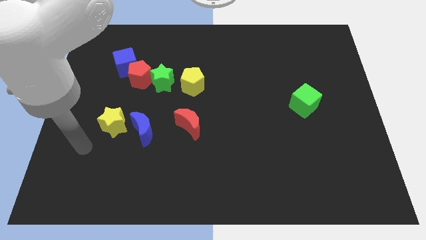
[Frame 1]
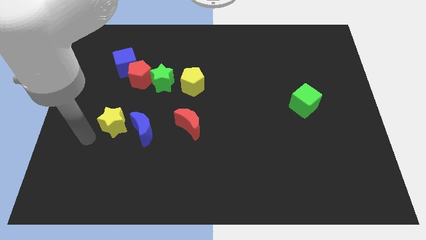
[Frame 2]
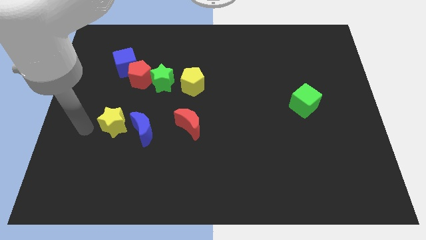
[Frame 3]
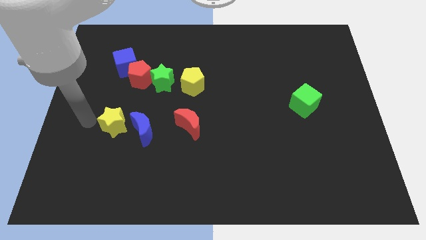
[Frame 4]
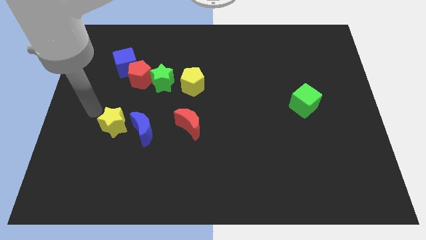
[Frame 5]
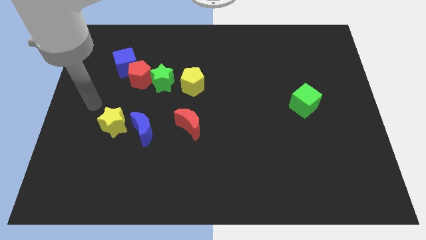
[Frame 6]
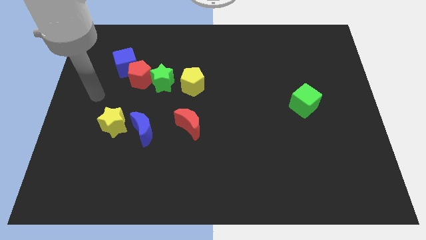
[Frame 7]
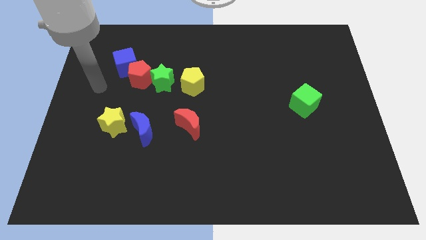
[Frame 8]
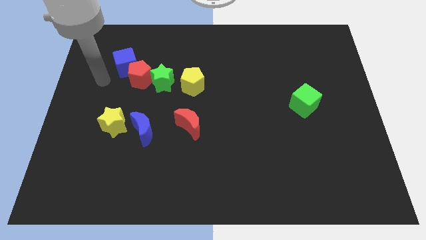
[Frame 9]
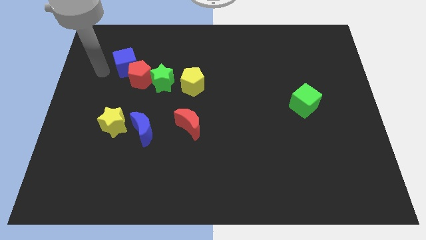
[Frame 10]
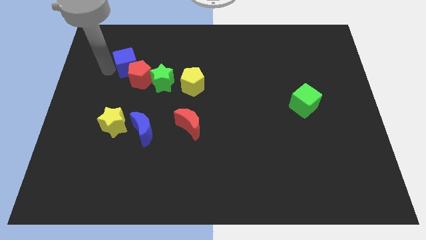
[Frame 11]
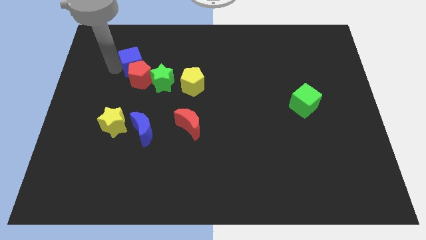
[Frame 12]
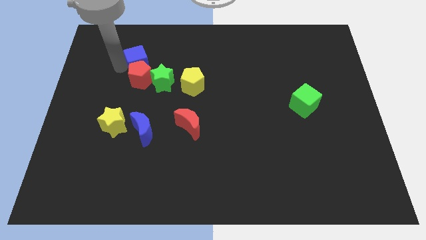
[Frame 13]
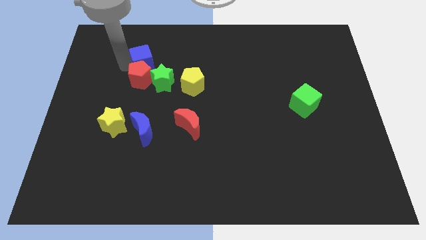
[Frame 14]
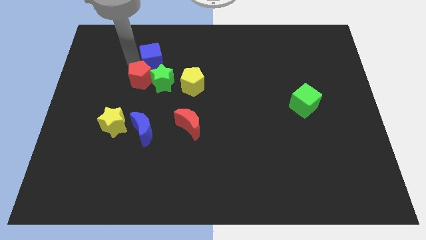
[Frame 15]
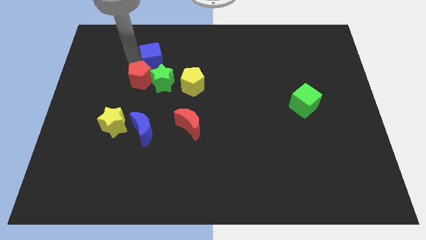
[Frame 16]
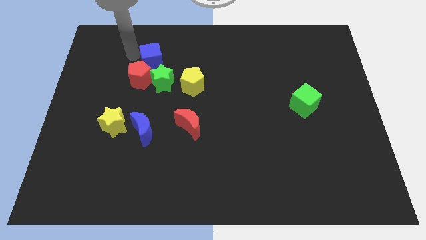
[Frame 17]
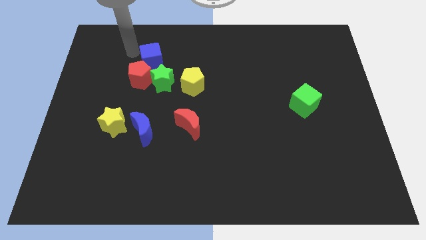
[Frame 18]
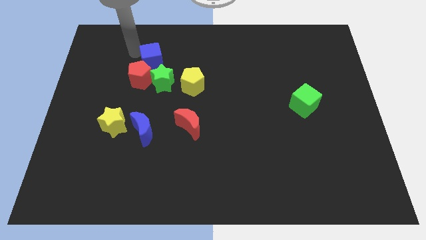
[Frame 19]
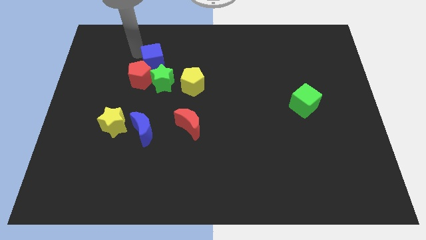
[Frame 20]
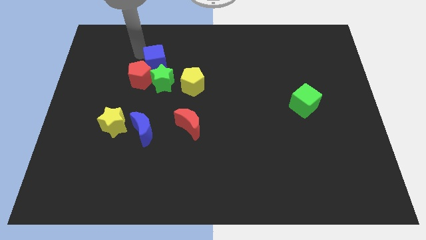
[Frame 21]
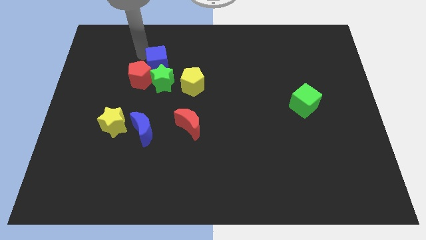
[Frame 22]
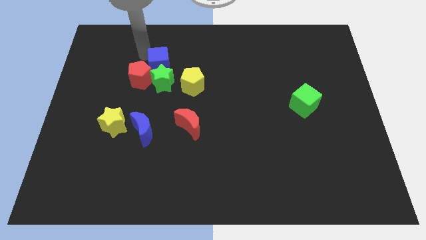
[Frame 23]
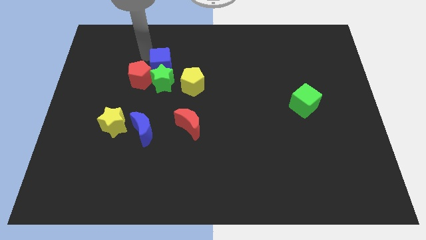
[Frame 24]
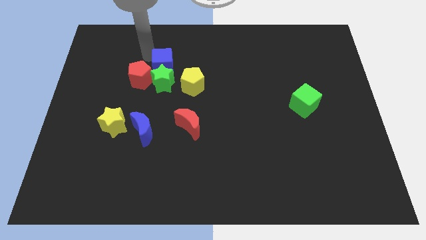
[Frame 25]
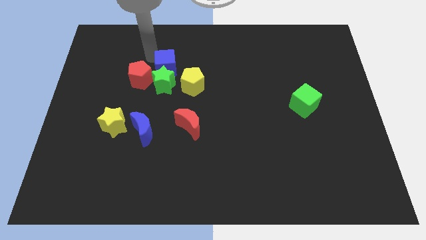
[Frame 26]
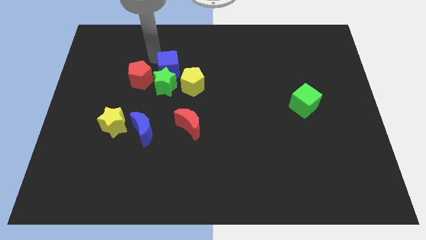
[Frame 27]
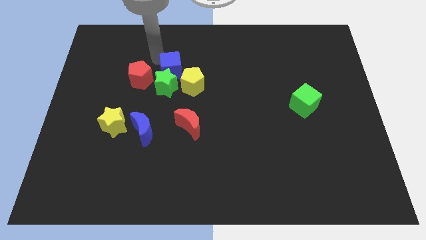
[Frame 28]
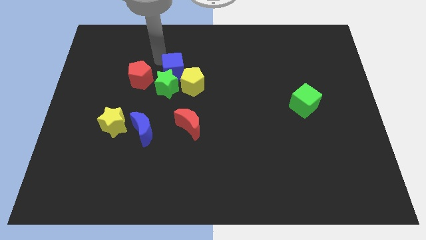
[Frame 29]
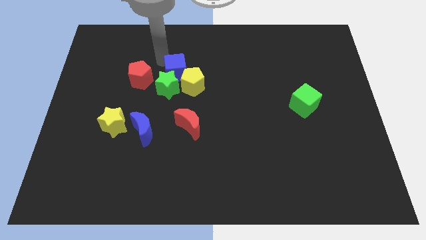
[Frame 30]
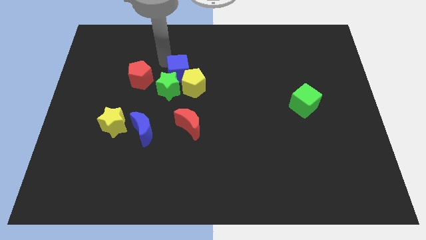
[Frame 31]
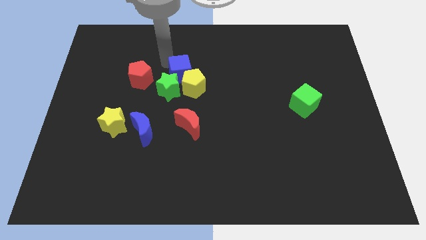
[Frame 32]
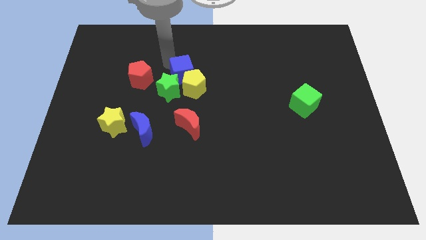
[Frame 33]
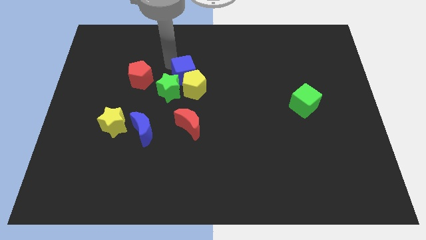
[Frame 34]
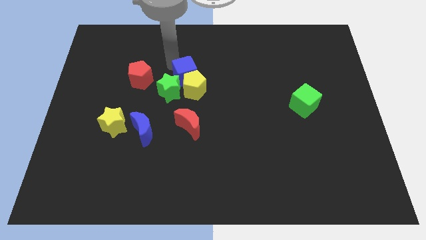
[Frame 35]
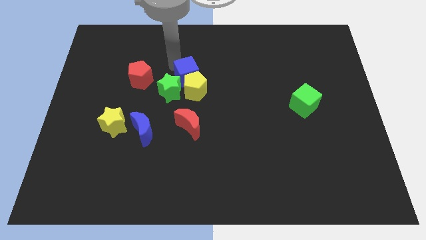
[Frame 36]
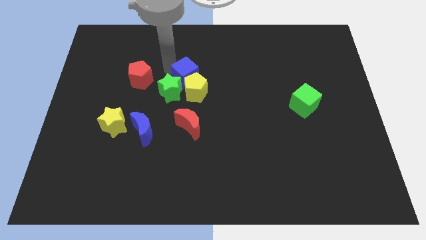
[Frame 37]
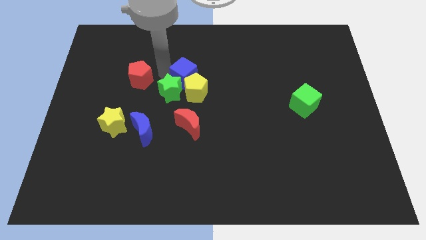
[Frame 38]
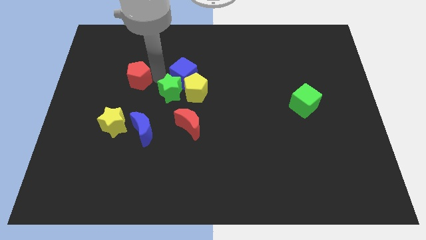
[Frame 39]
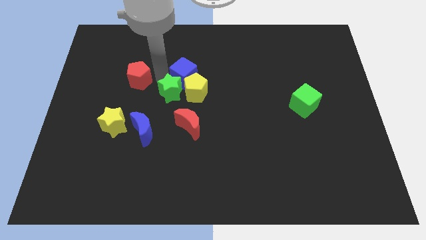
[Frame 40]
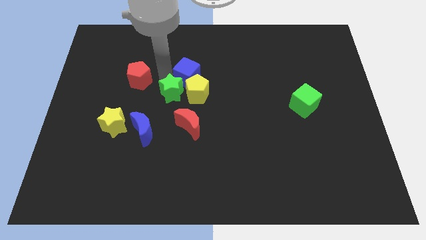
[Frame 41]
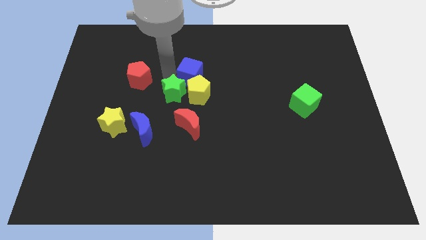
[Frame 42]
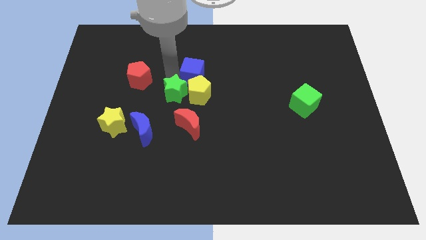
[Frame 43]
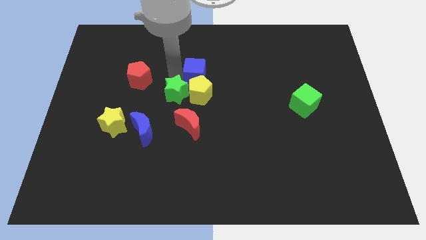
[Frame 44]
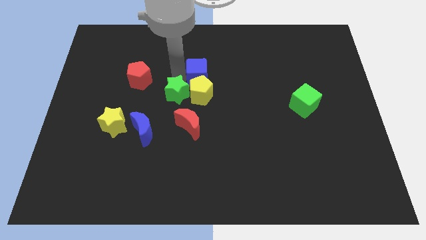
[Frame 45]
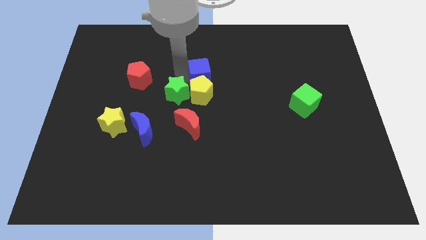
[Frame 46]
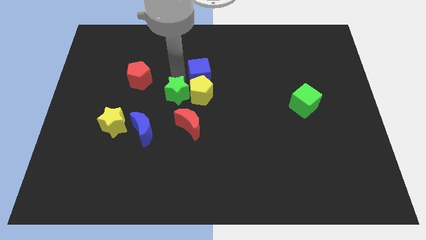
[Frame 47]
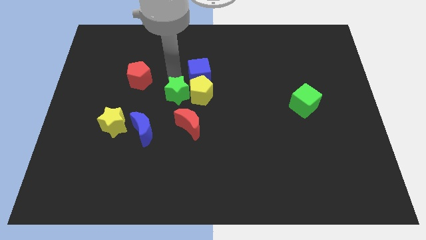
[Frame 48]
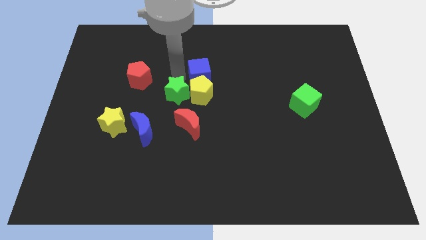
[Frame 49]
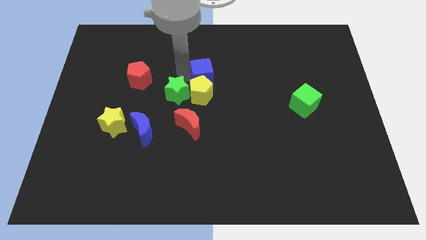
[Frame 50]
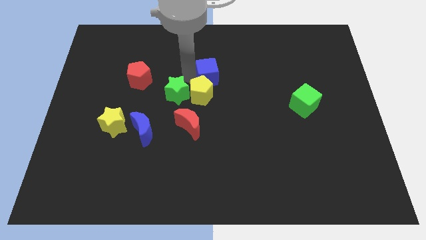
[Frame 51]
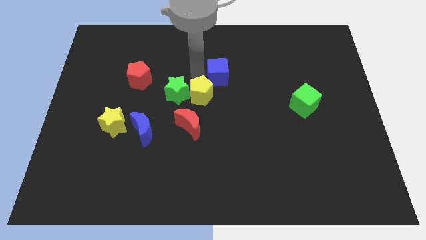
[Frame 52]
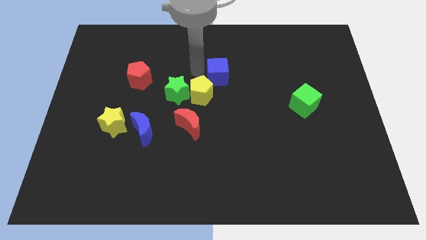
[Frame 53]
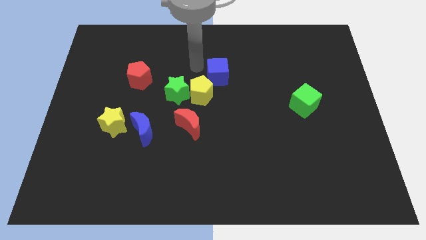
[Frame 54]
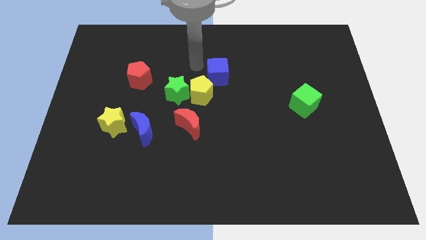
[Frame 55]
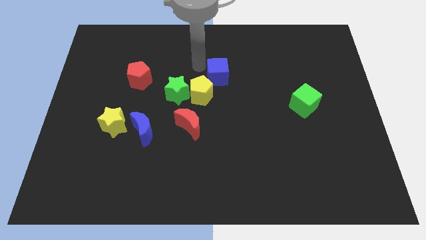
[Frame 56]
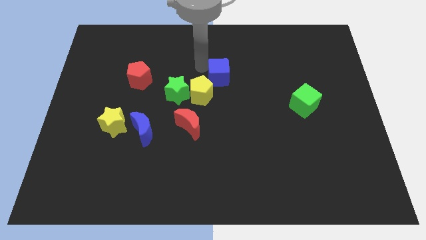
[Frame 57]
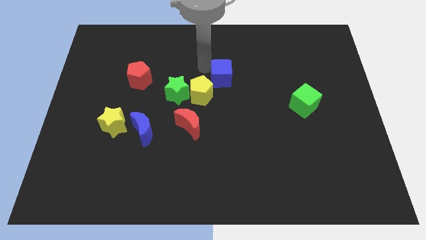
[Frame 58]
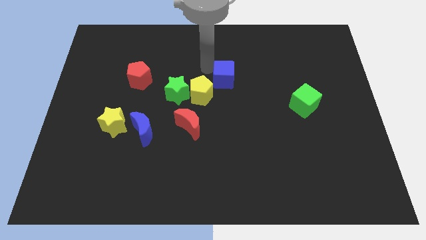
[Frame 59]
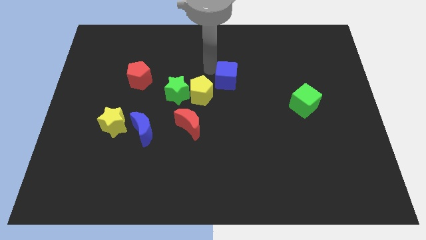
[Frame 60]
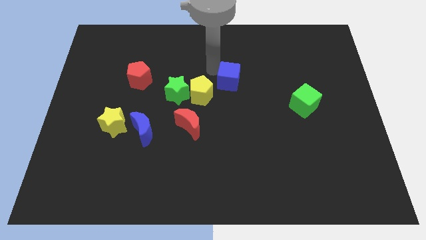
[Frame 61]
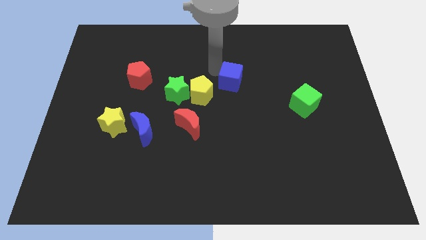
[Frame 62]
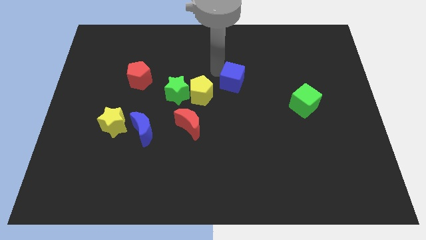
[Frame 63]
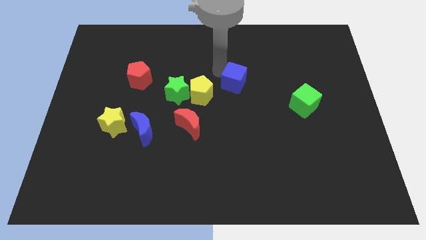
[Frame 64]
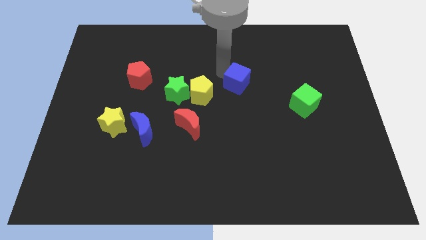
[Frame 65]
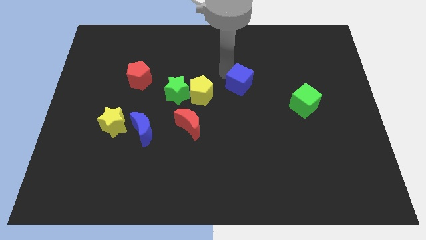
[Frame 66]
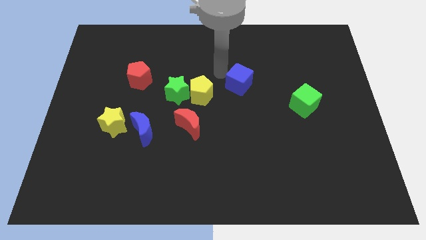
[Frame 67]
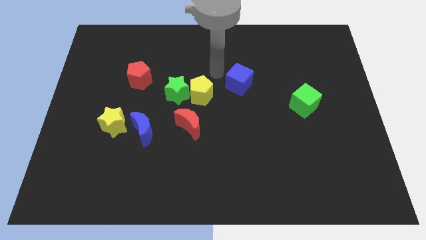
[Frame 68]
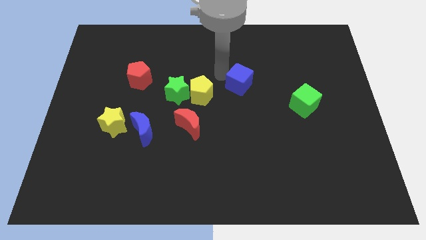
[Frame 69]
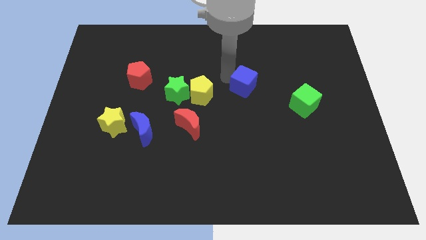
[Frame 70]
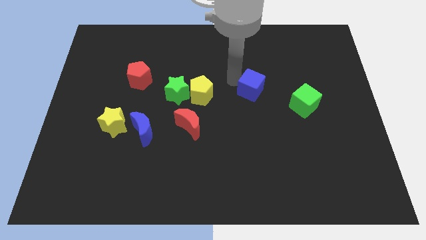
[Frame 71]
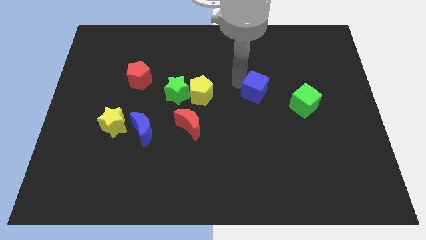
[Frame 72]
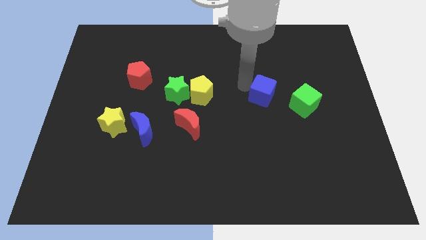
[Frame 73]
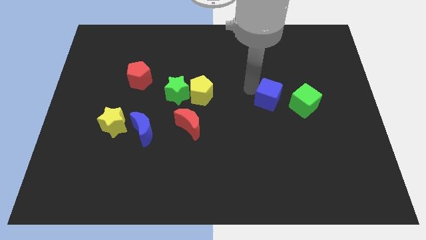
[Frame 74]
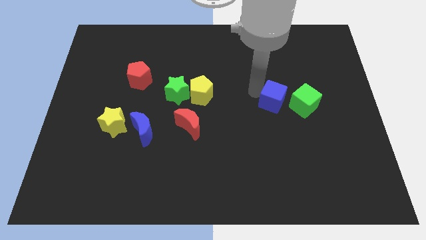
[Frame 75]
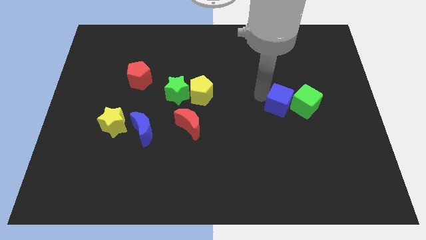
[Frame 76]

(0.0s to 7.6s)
push the blue cube close to the green cube
